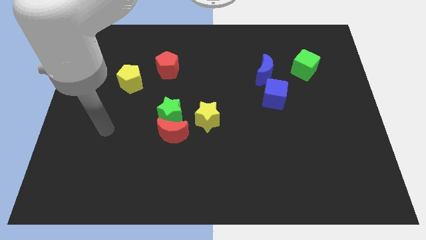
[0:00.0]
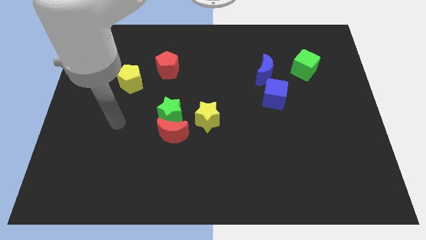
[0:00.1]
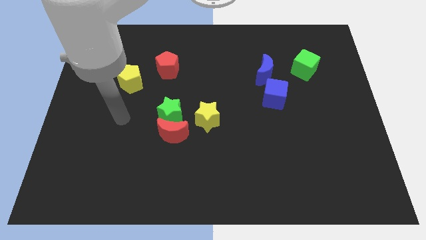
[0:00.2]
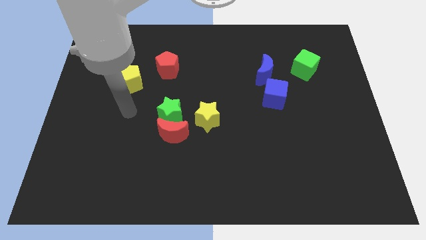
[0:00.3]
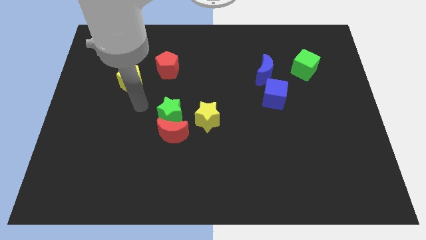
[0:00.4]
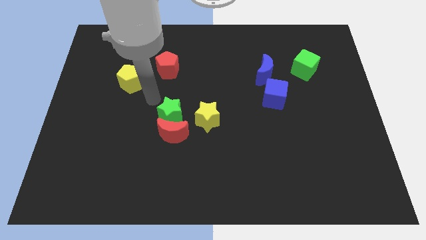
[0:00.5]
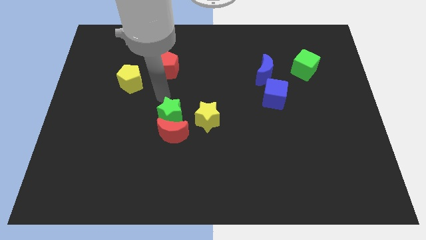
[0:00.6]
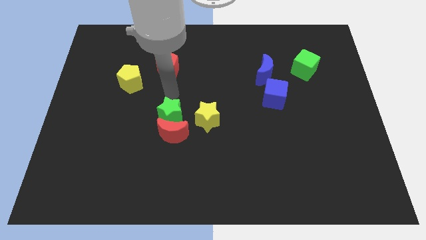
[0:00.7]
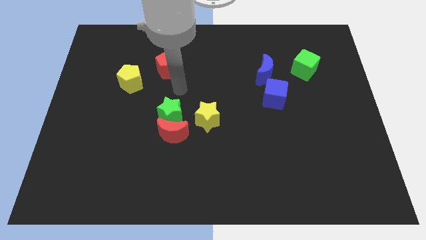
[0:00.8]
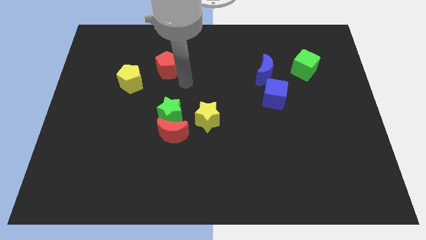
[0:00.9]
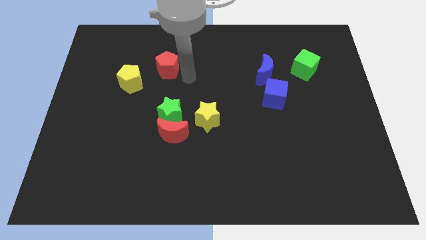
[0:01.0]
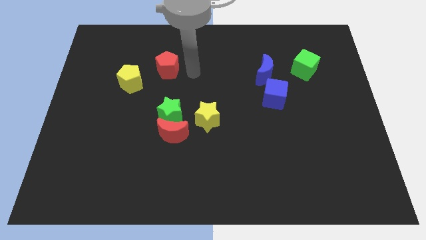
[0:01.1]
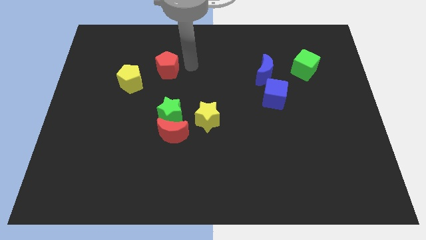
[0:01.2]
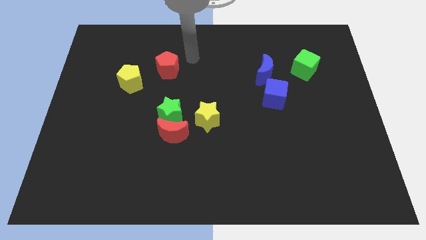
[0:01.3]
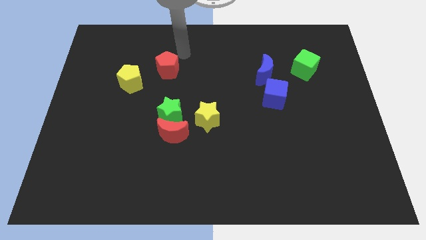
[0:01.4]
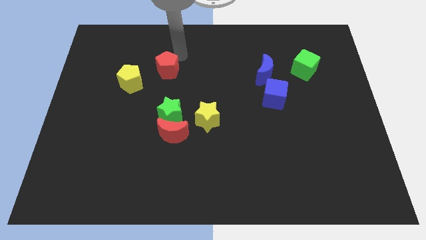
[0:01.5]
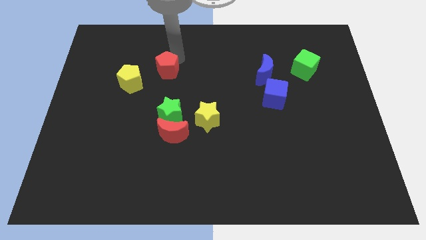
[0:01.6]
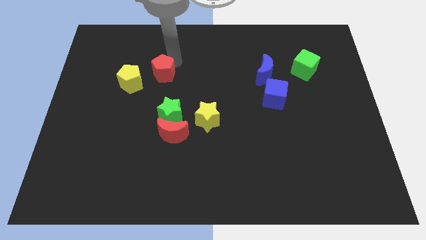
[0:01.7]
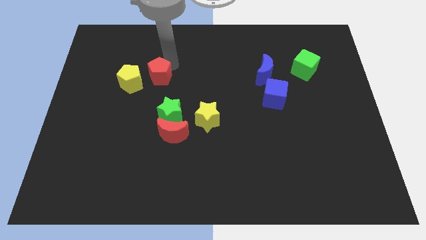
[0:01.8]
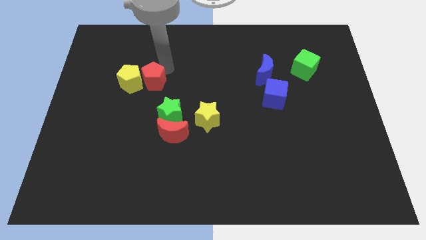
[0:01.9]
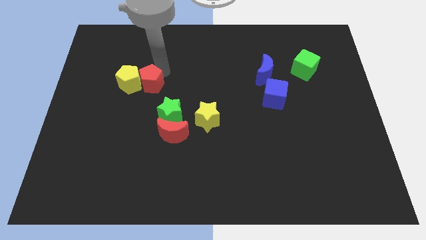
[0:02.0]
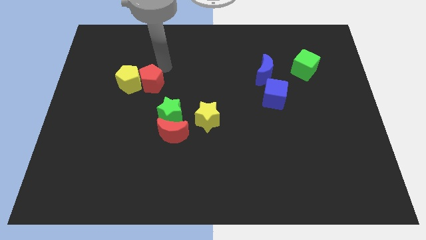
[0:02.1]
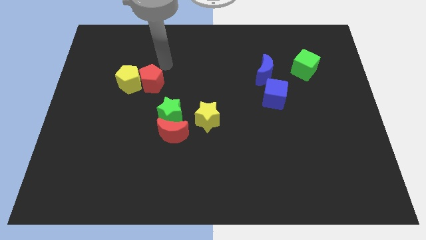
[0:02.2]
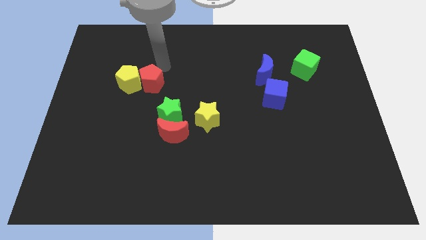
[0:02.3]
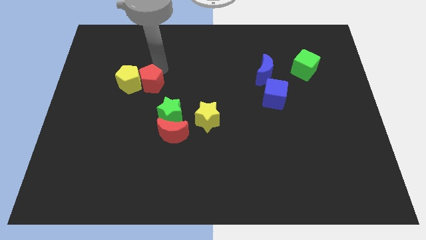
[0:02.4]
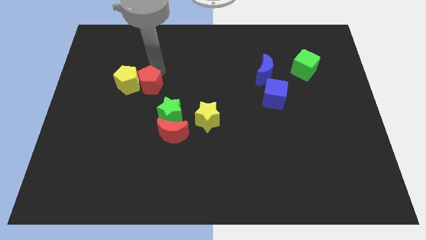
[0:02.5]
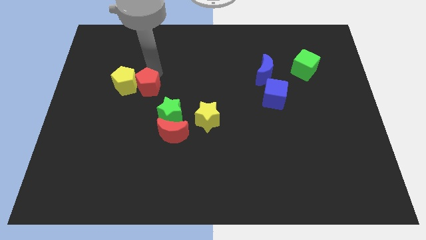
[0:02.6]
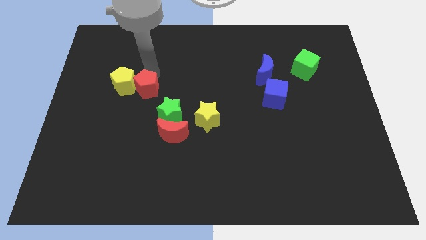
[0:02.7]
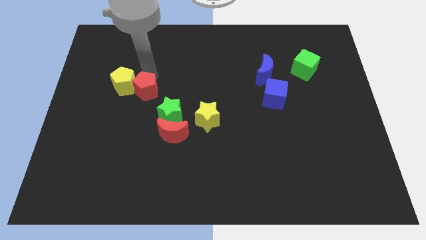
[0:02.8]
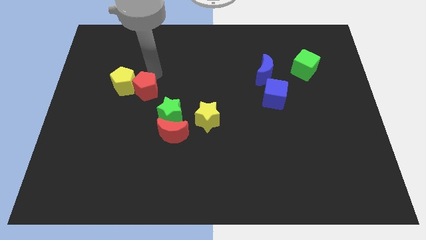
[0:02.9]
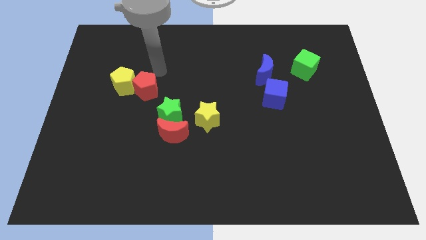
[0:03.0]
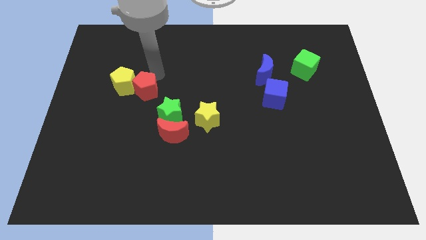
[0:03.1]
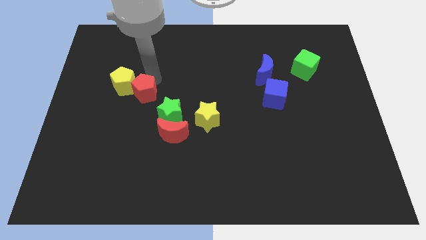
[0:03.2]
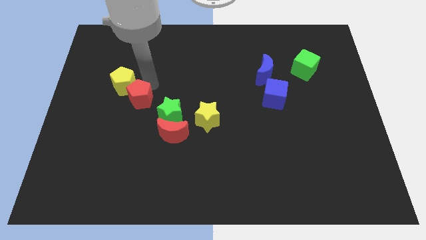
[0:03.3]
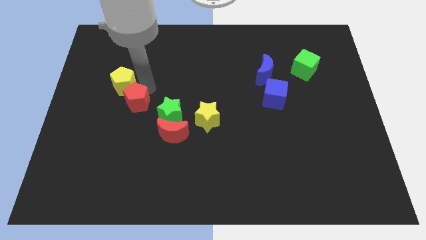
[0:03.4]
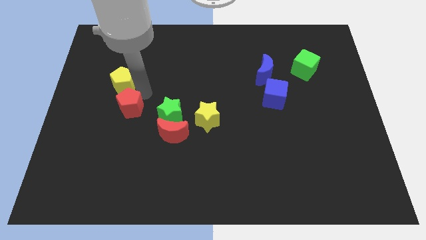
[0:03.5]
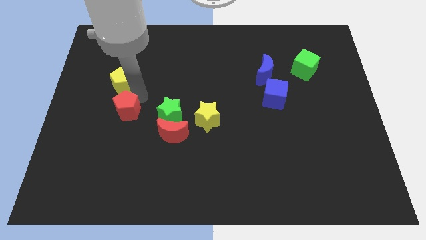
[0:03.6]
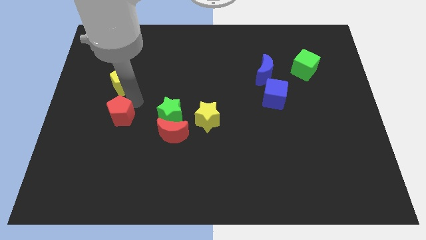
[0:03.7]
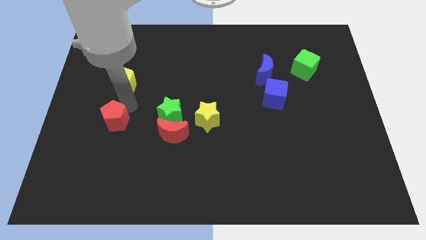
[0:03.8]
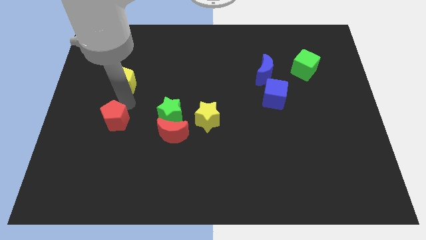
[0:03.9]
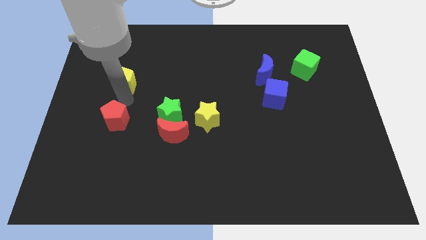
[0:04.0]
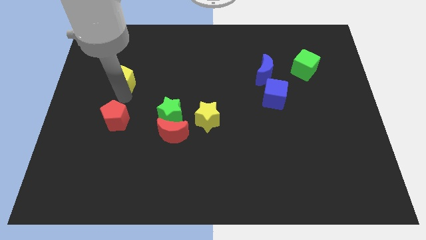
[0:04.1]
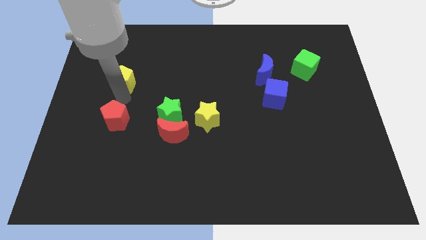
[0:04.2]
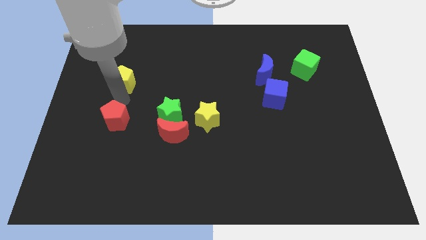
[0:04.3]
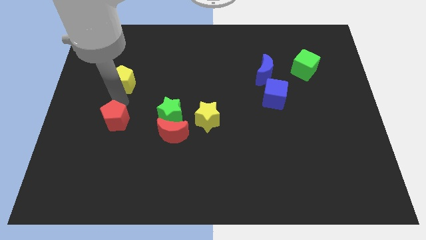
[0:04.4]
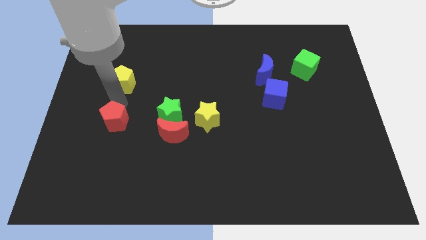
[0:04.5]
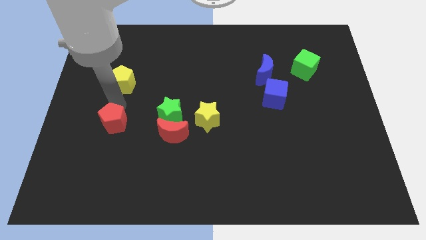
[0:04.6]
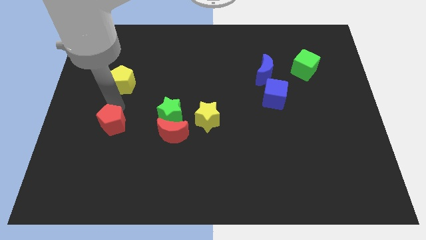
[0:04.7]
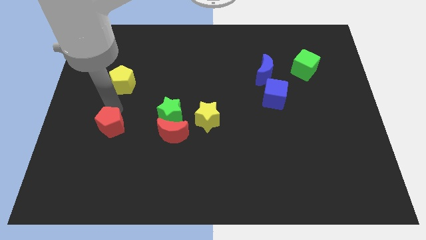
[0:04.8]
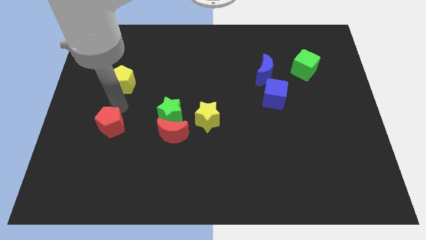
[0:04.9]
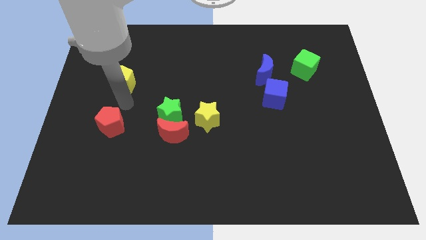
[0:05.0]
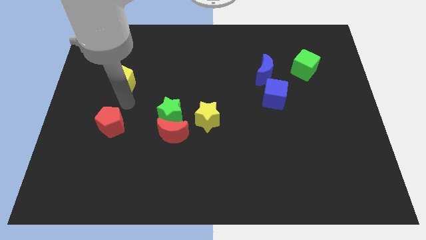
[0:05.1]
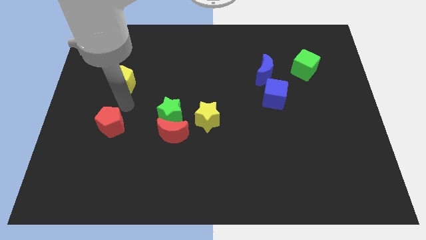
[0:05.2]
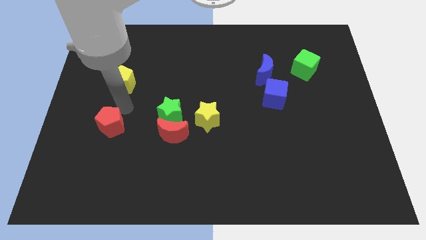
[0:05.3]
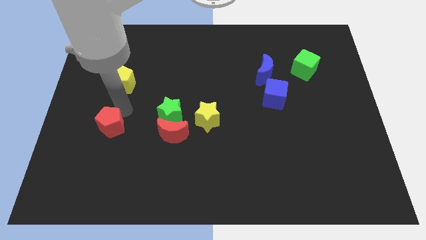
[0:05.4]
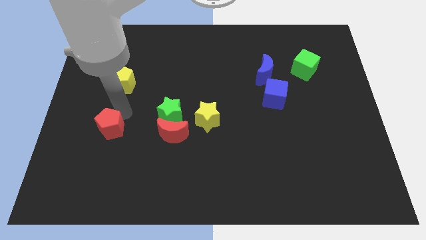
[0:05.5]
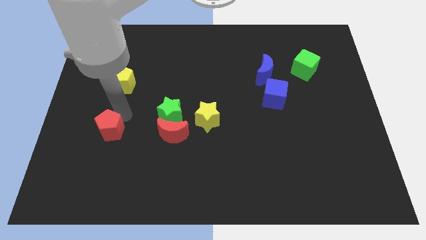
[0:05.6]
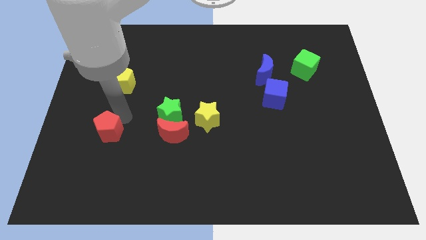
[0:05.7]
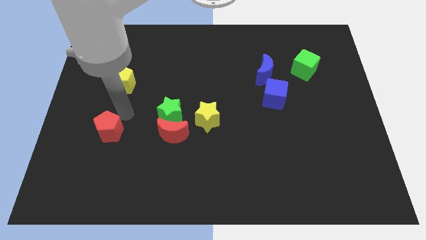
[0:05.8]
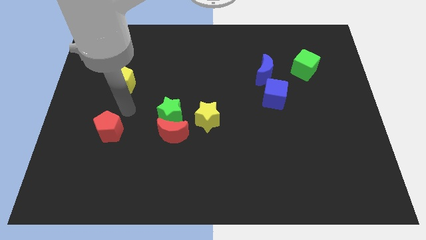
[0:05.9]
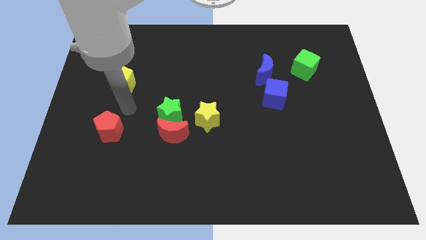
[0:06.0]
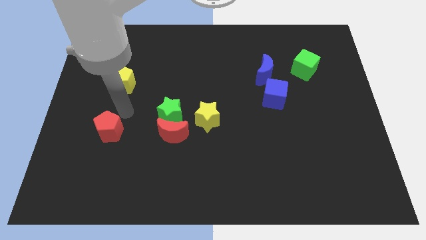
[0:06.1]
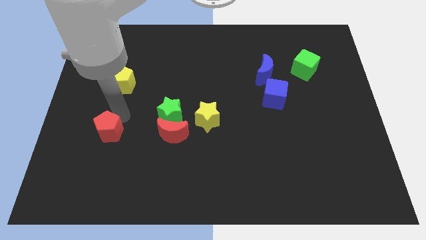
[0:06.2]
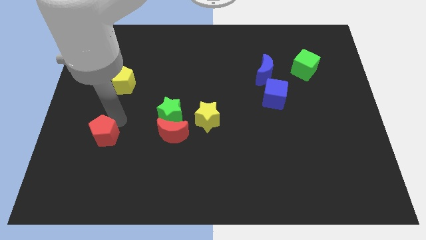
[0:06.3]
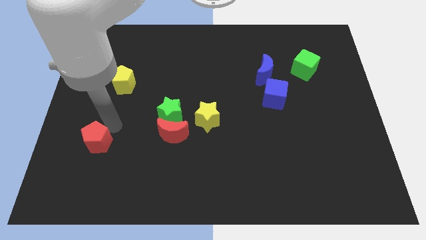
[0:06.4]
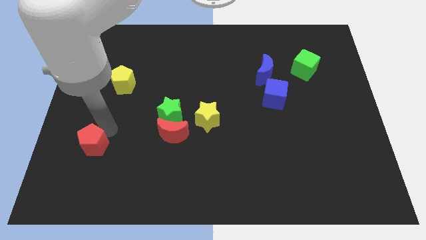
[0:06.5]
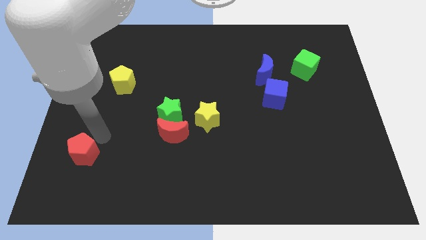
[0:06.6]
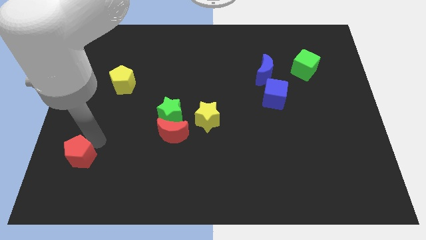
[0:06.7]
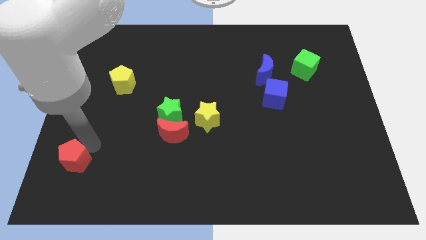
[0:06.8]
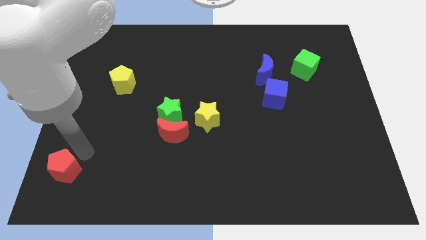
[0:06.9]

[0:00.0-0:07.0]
slide the red pentagon to the lower left corner
